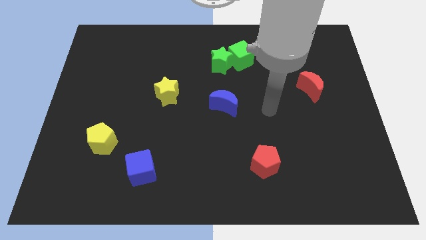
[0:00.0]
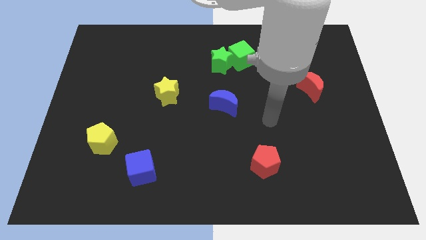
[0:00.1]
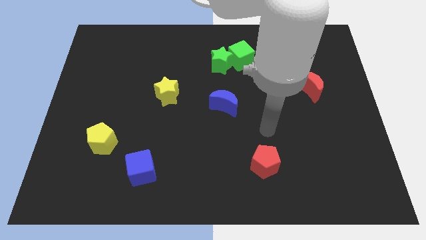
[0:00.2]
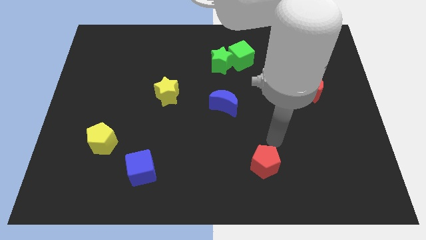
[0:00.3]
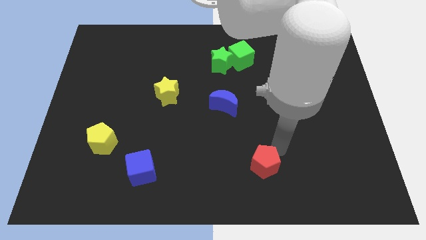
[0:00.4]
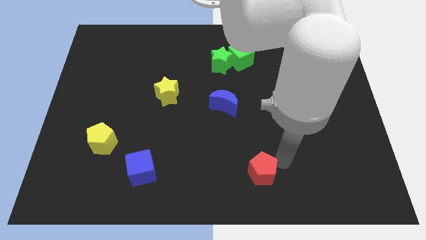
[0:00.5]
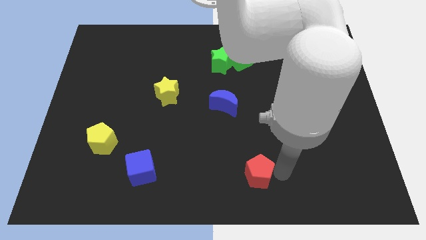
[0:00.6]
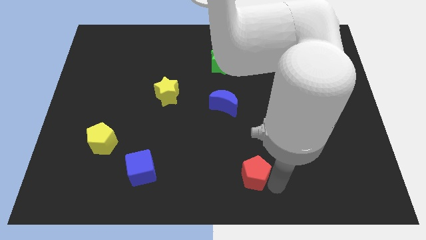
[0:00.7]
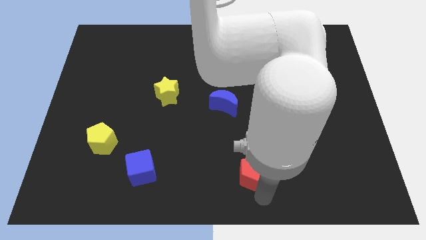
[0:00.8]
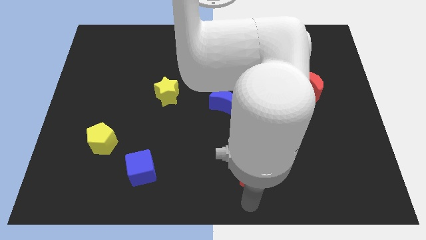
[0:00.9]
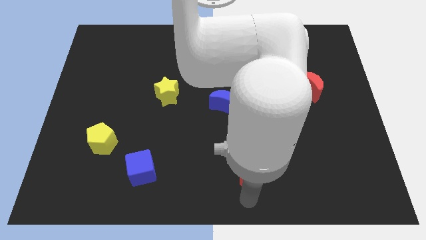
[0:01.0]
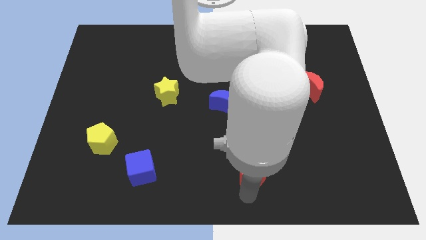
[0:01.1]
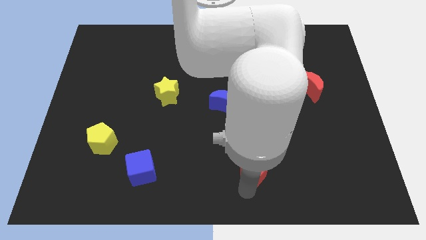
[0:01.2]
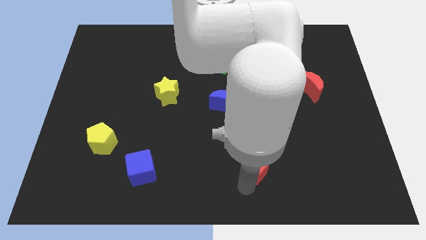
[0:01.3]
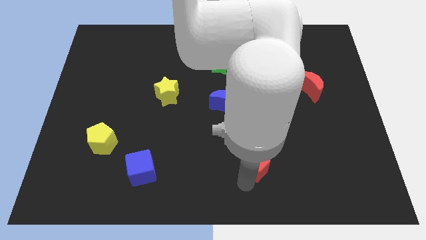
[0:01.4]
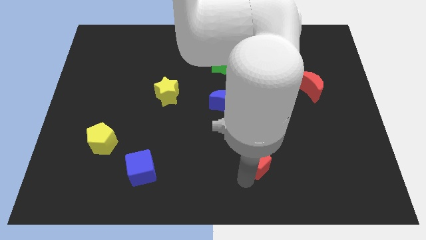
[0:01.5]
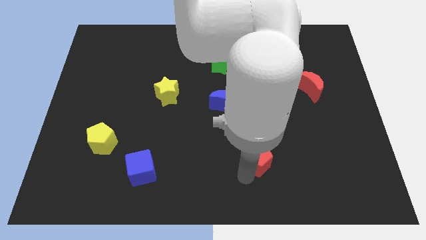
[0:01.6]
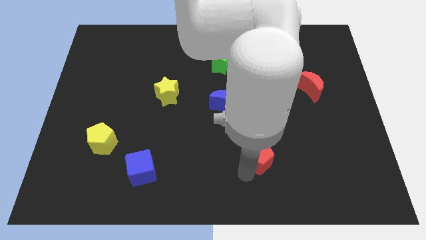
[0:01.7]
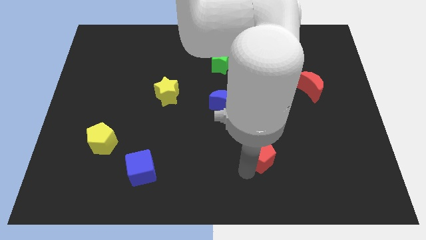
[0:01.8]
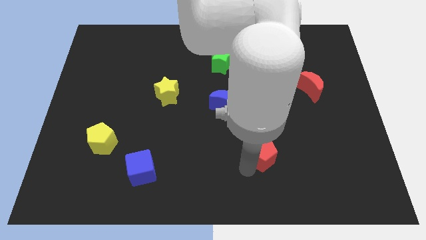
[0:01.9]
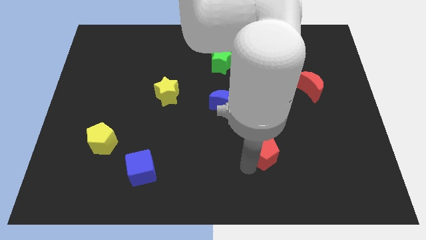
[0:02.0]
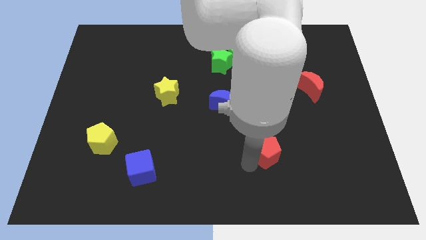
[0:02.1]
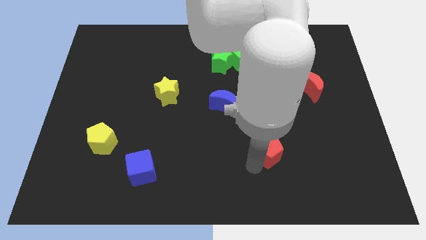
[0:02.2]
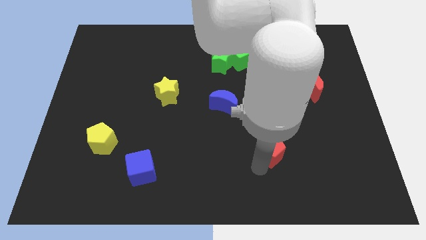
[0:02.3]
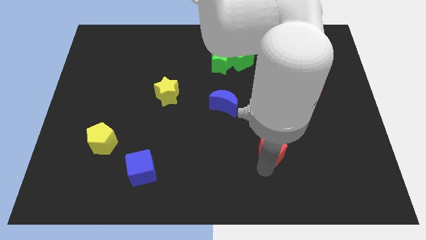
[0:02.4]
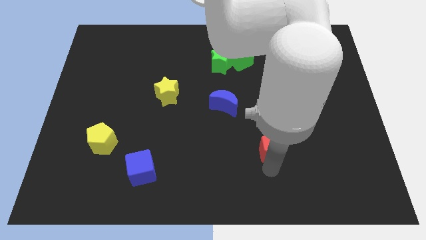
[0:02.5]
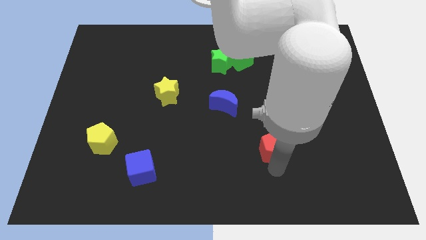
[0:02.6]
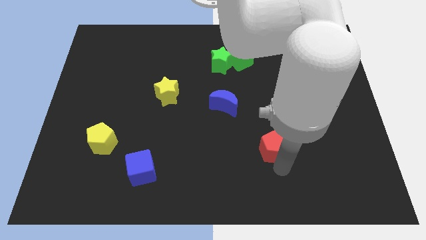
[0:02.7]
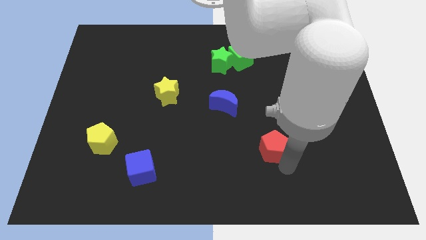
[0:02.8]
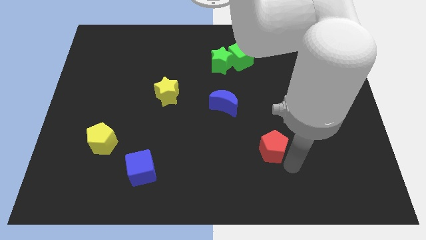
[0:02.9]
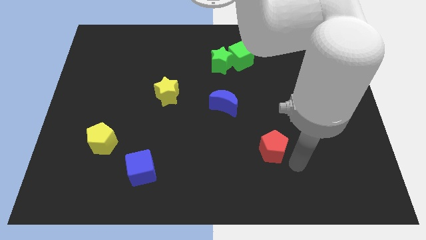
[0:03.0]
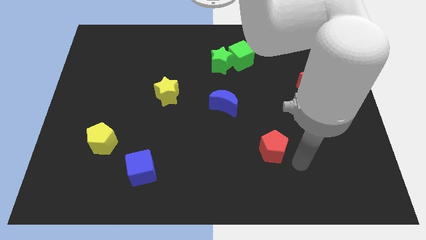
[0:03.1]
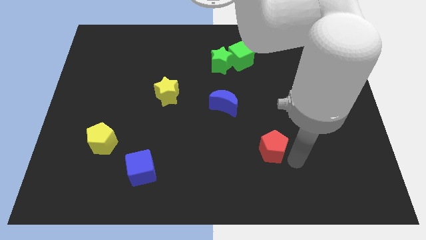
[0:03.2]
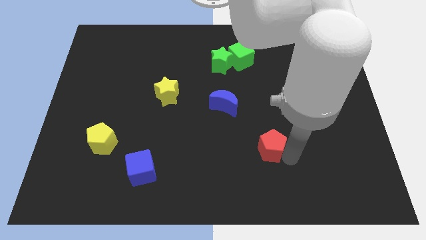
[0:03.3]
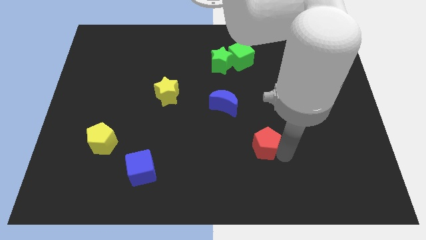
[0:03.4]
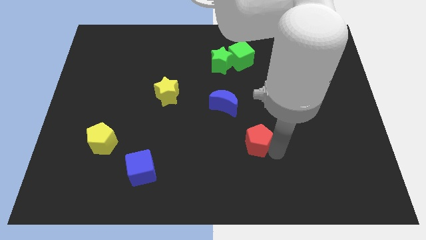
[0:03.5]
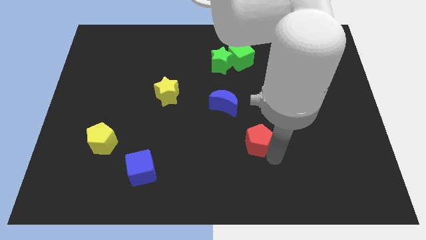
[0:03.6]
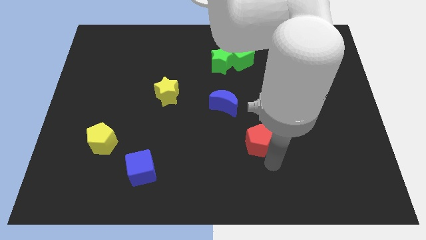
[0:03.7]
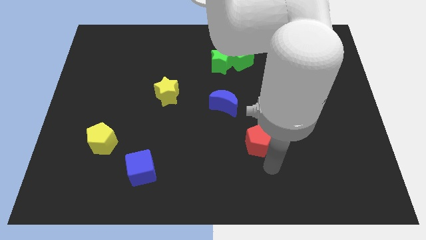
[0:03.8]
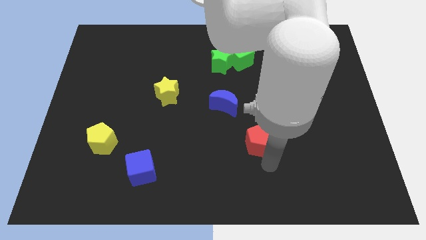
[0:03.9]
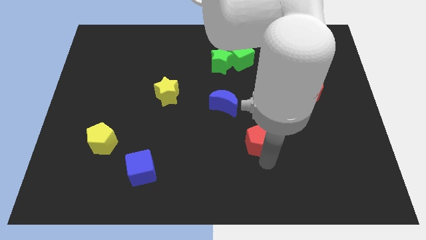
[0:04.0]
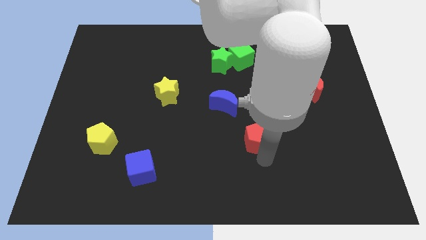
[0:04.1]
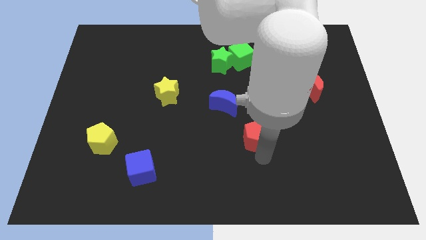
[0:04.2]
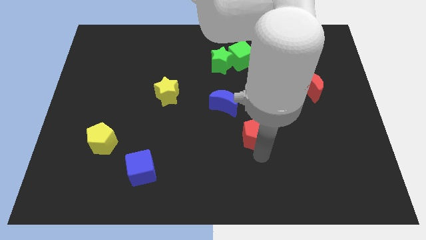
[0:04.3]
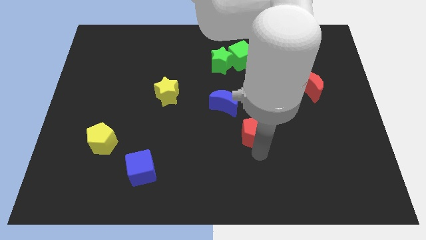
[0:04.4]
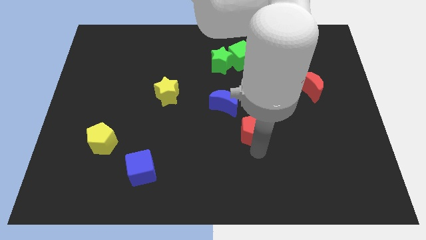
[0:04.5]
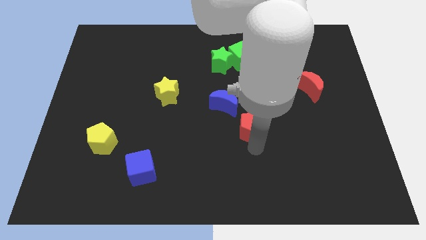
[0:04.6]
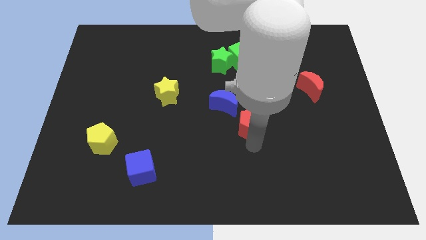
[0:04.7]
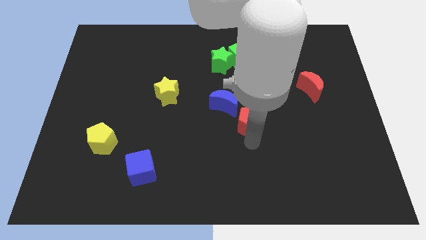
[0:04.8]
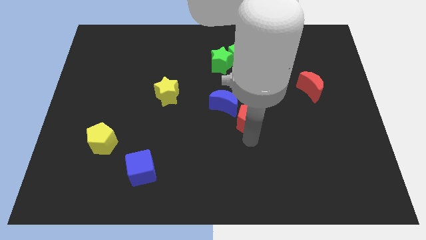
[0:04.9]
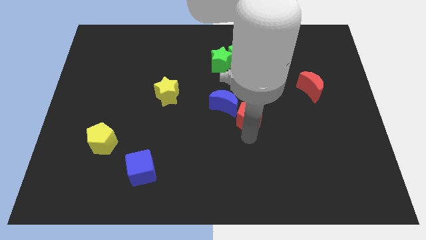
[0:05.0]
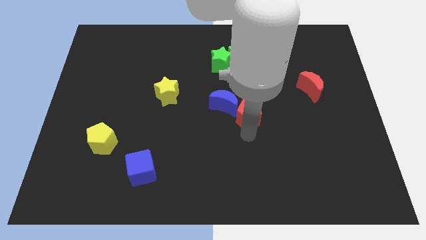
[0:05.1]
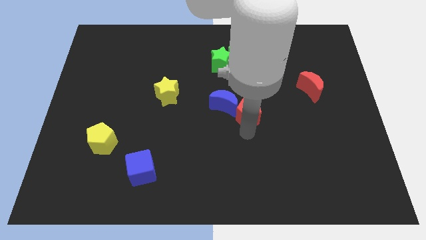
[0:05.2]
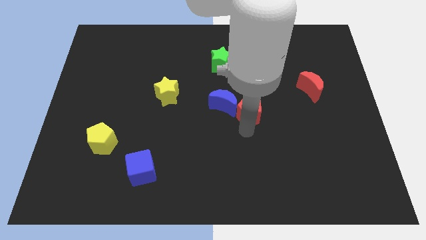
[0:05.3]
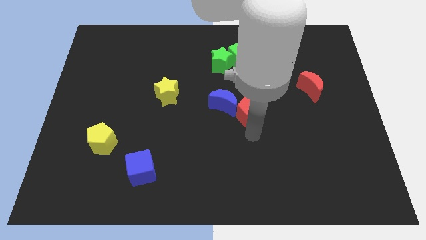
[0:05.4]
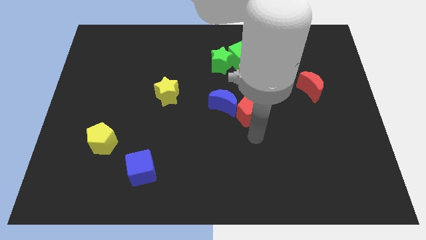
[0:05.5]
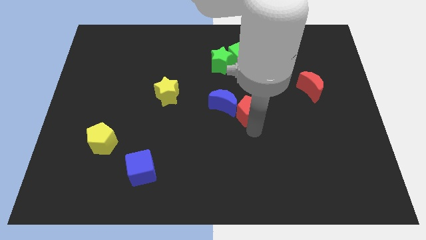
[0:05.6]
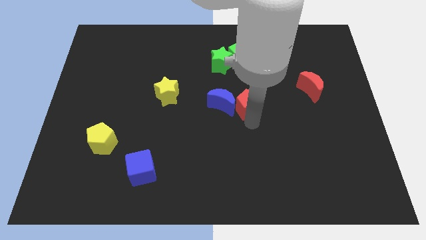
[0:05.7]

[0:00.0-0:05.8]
move the red pentagon to the bottom of the green cube

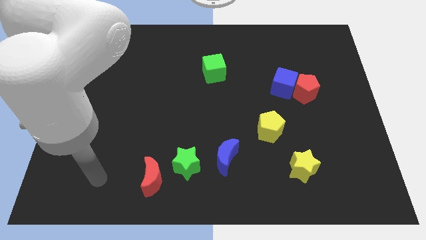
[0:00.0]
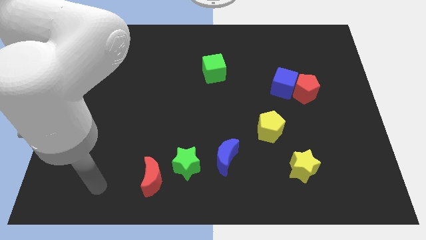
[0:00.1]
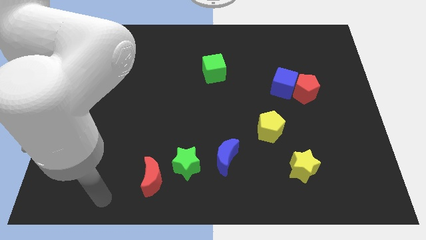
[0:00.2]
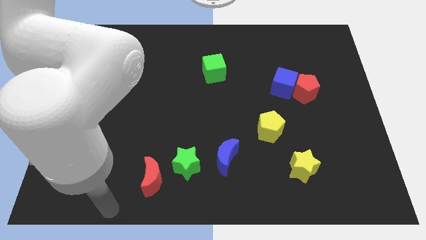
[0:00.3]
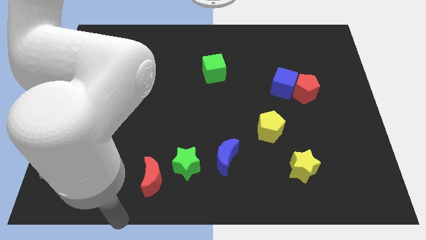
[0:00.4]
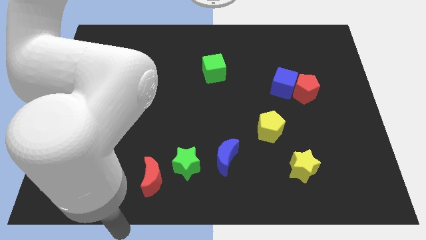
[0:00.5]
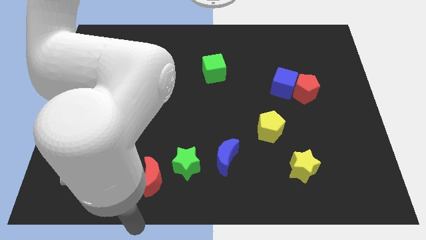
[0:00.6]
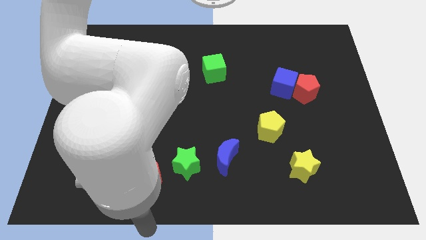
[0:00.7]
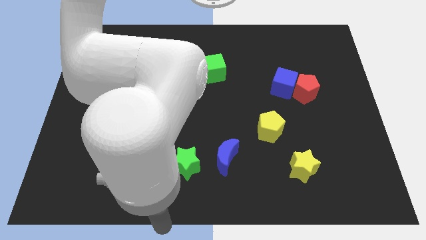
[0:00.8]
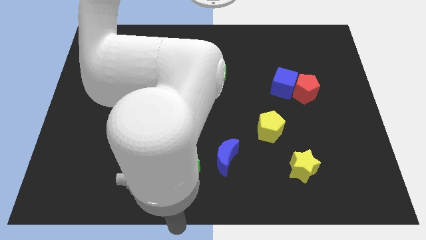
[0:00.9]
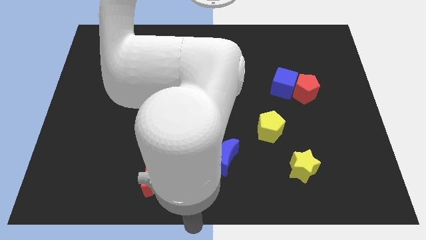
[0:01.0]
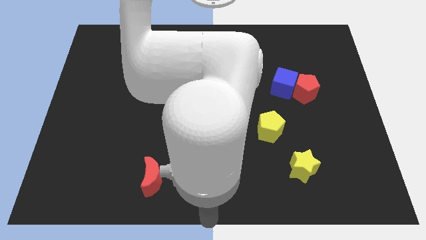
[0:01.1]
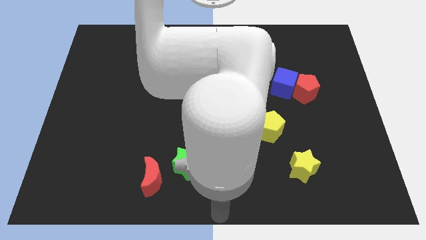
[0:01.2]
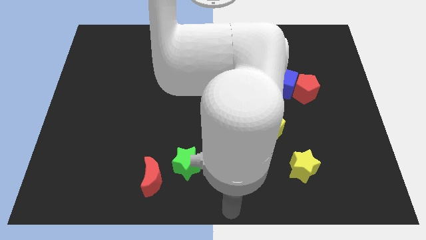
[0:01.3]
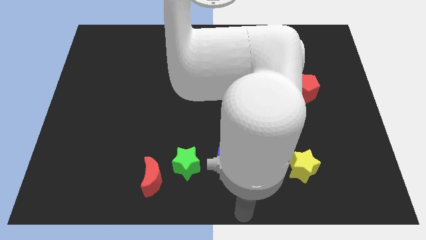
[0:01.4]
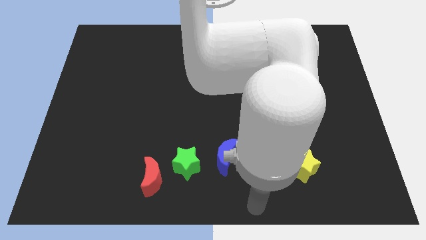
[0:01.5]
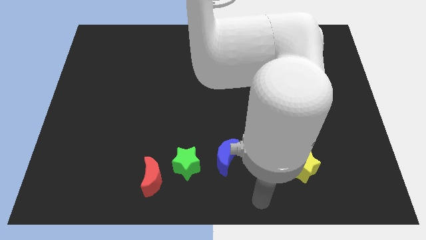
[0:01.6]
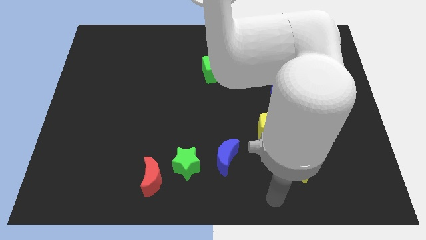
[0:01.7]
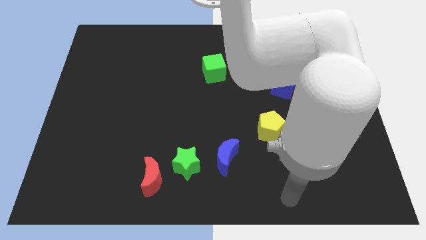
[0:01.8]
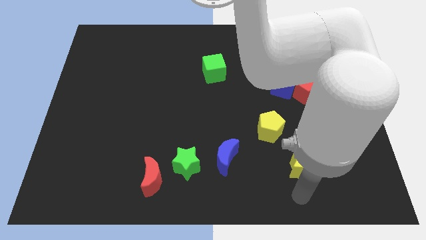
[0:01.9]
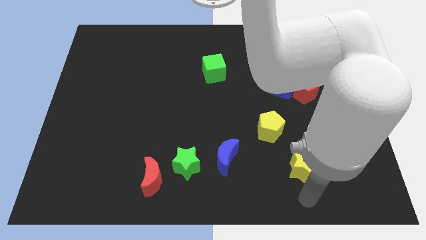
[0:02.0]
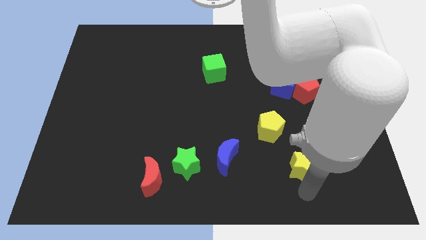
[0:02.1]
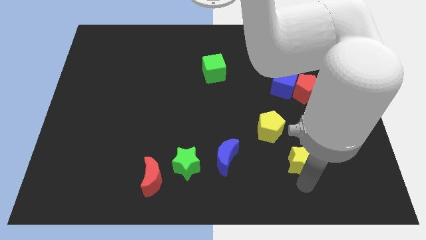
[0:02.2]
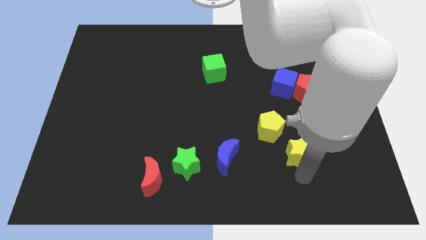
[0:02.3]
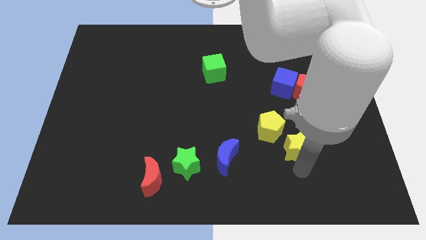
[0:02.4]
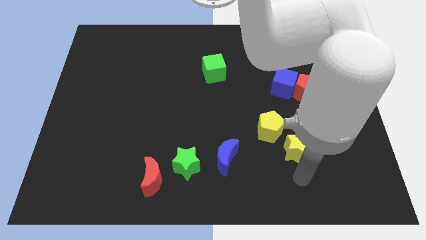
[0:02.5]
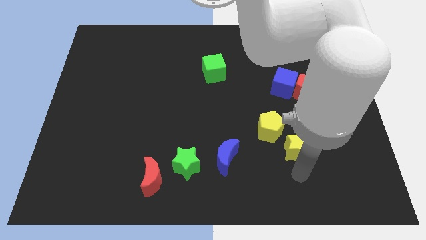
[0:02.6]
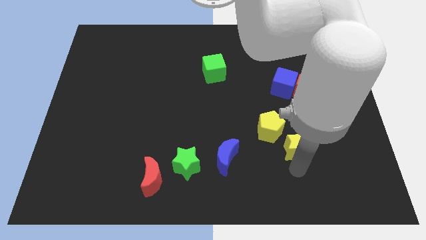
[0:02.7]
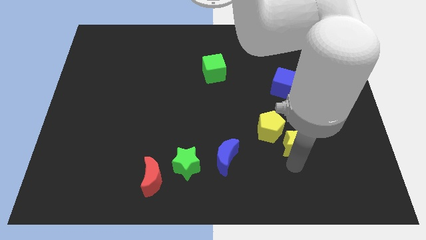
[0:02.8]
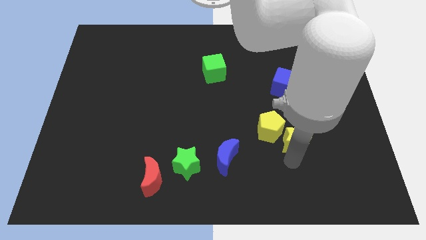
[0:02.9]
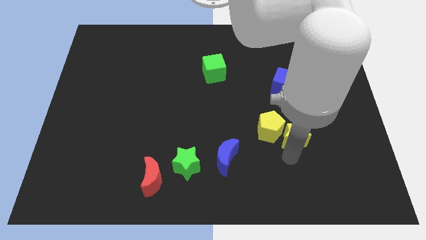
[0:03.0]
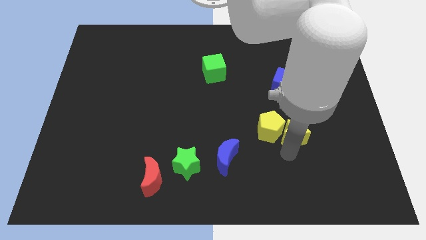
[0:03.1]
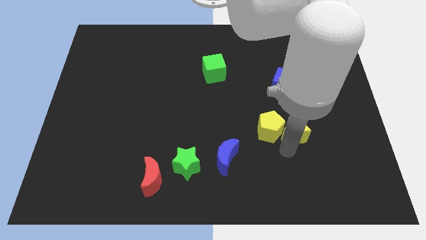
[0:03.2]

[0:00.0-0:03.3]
push the yellow star diagonally up and to the right of the yellow pentagon
